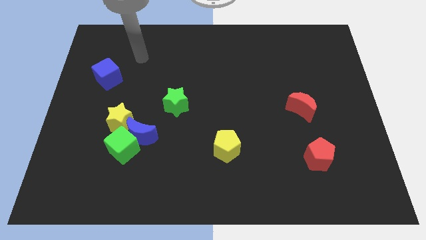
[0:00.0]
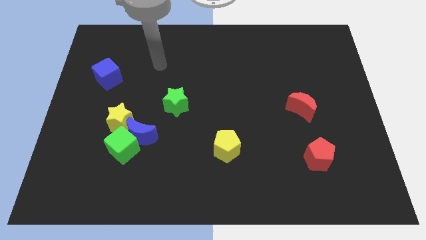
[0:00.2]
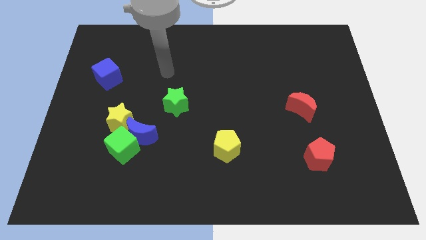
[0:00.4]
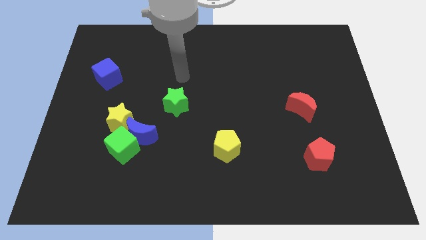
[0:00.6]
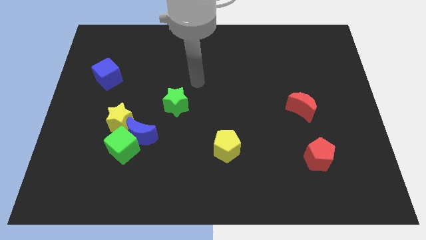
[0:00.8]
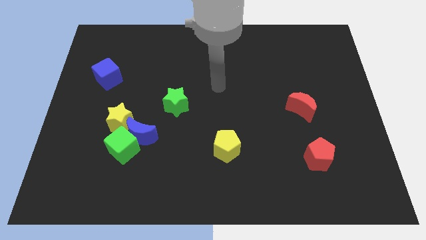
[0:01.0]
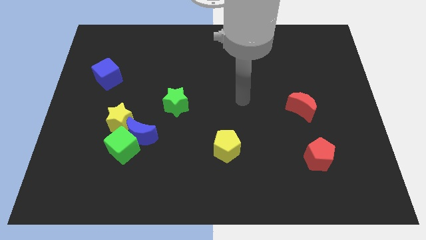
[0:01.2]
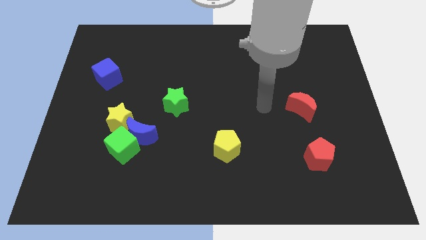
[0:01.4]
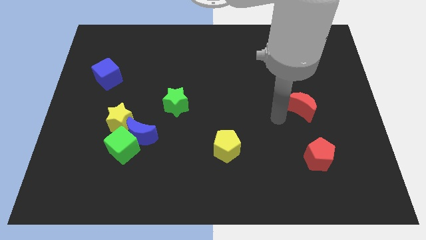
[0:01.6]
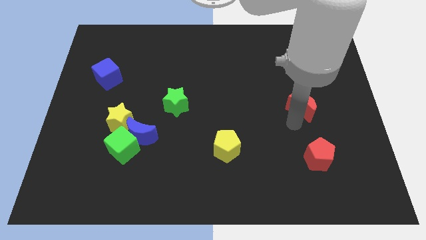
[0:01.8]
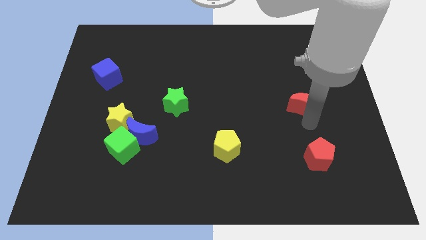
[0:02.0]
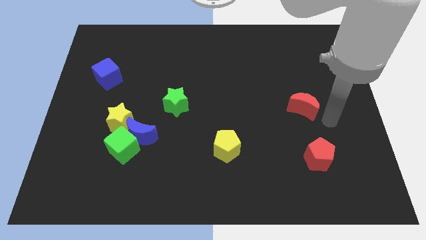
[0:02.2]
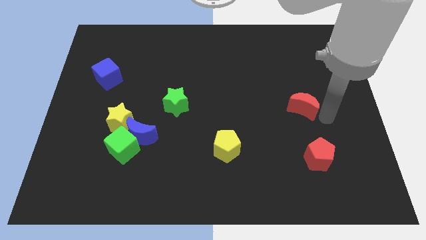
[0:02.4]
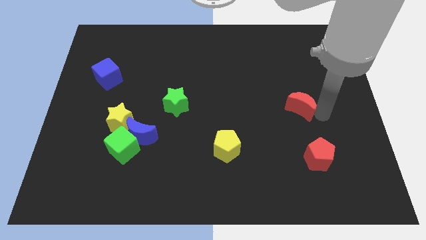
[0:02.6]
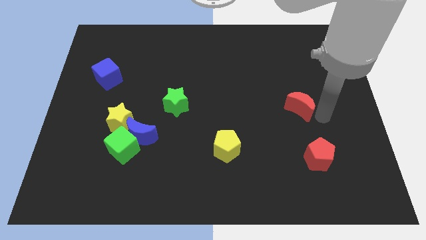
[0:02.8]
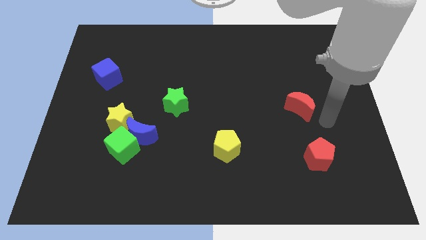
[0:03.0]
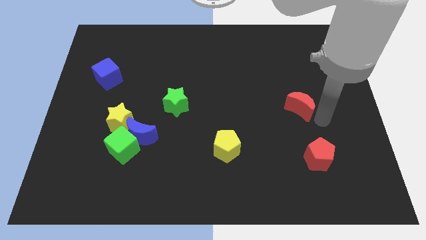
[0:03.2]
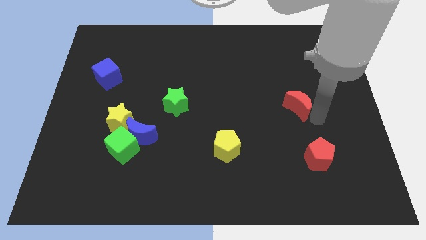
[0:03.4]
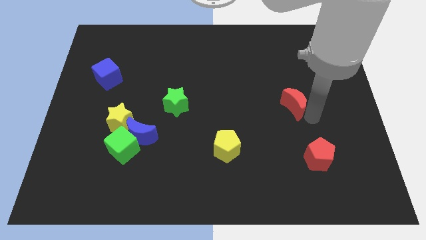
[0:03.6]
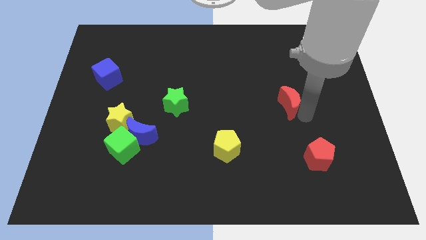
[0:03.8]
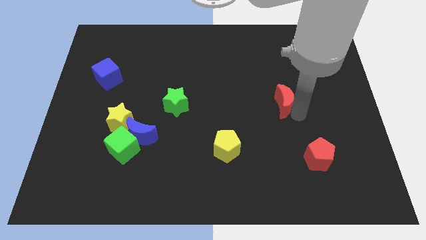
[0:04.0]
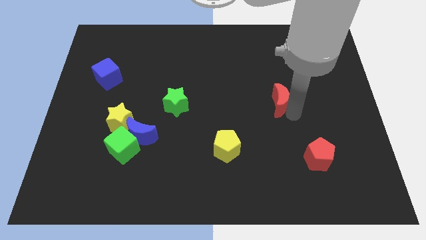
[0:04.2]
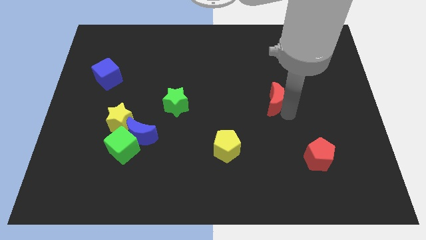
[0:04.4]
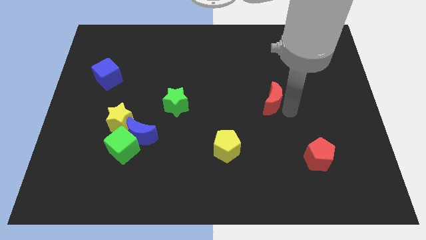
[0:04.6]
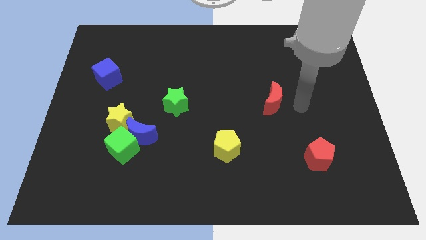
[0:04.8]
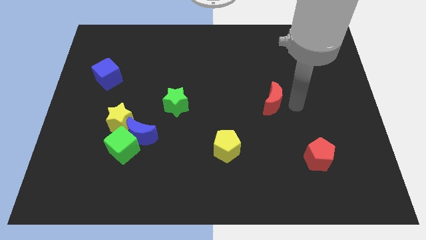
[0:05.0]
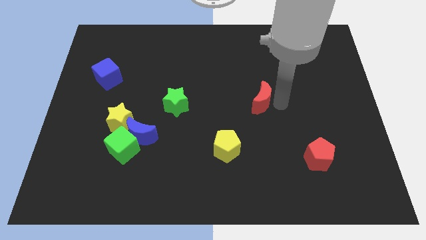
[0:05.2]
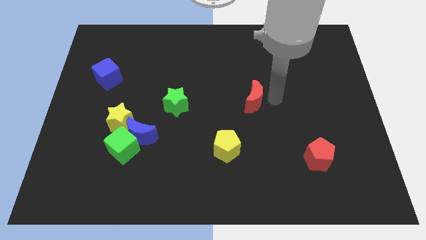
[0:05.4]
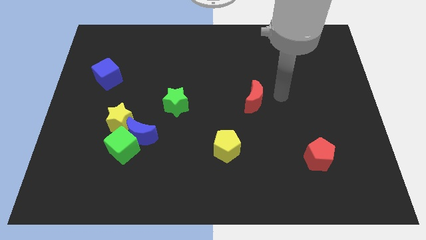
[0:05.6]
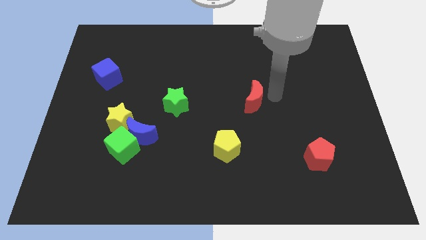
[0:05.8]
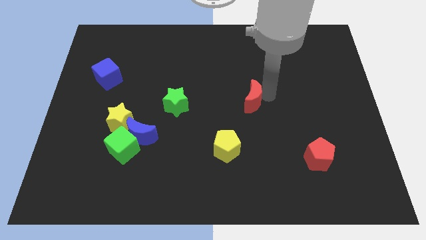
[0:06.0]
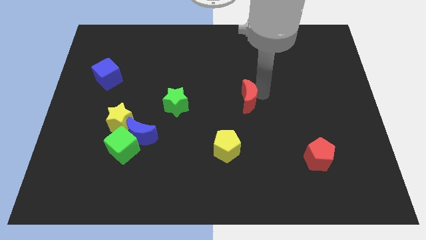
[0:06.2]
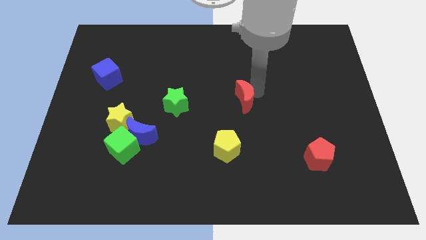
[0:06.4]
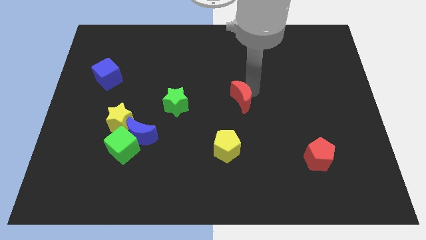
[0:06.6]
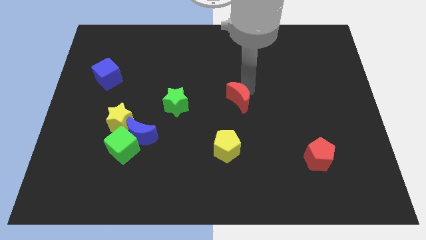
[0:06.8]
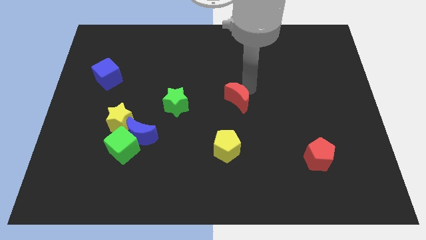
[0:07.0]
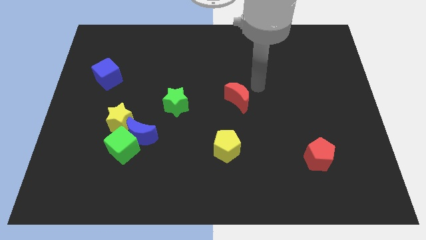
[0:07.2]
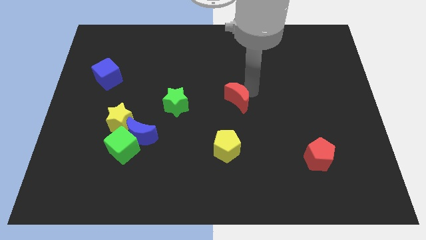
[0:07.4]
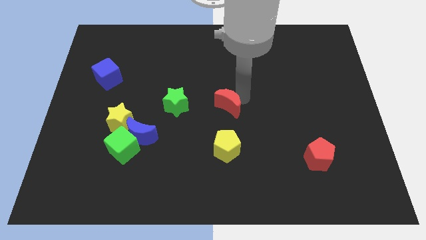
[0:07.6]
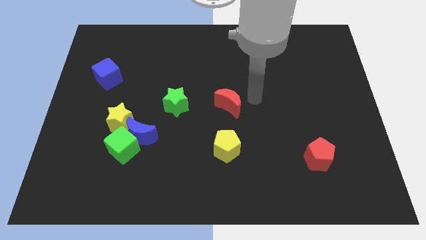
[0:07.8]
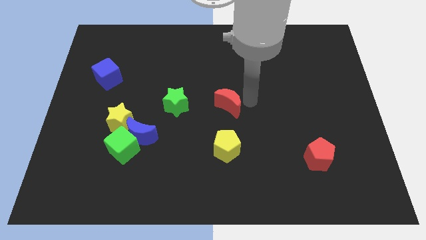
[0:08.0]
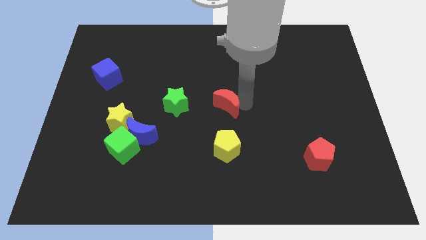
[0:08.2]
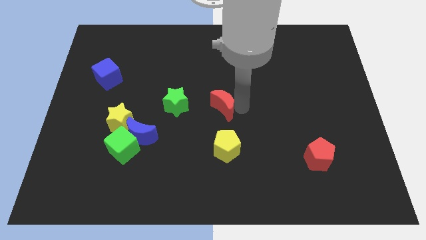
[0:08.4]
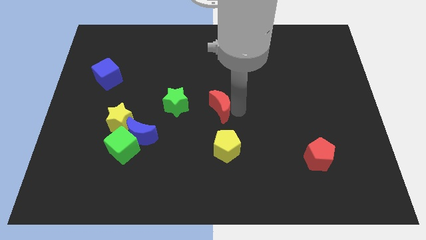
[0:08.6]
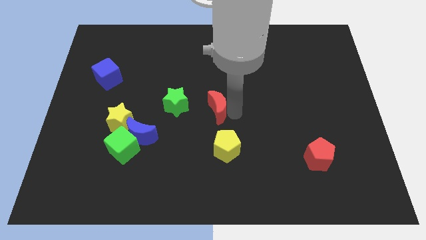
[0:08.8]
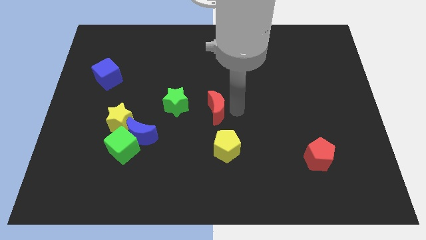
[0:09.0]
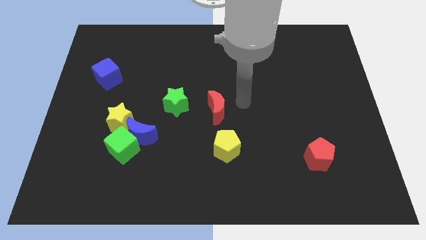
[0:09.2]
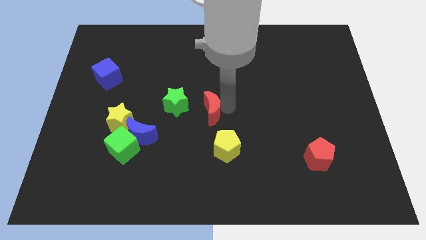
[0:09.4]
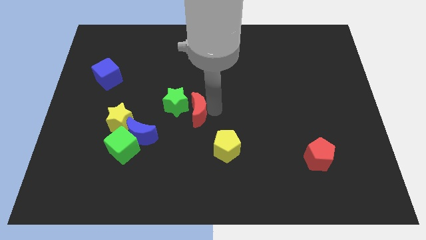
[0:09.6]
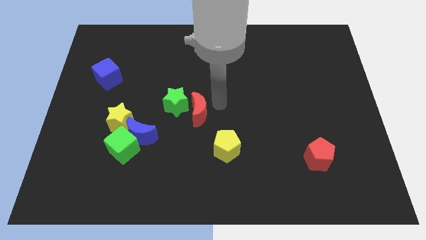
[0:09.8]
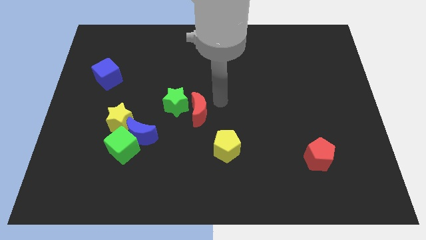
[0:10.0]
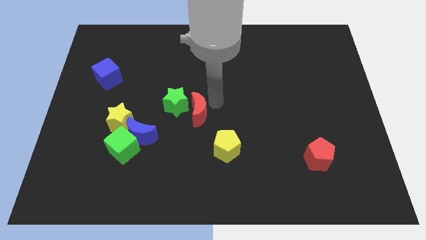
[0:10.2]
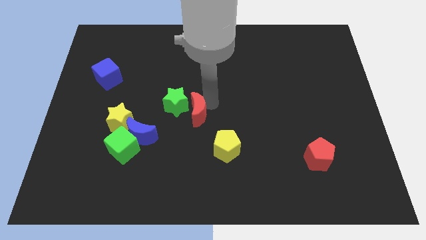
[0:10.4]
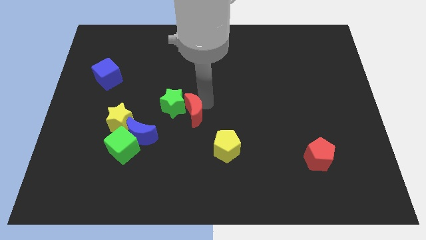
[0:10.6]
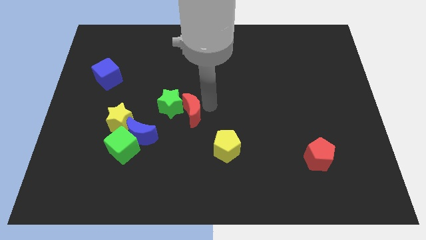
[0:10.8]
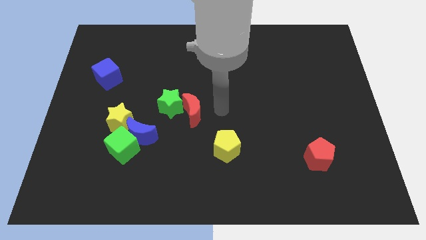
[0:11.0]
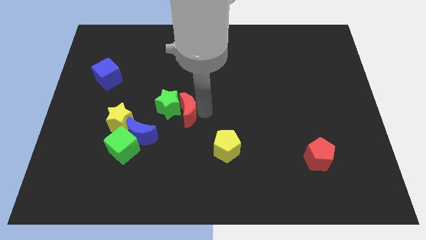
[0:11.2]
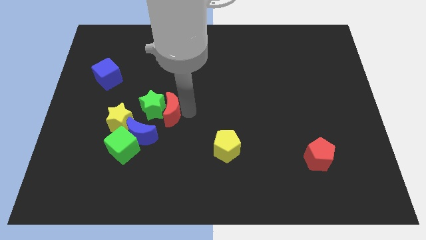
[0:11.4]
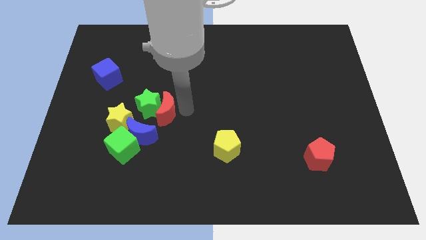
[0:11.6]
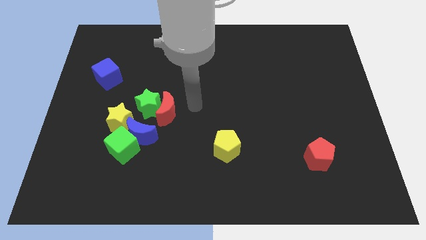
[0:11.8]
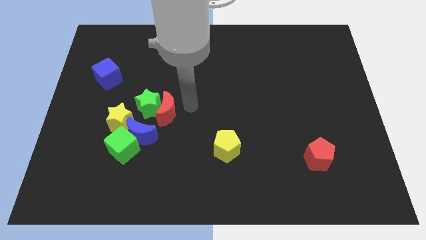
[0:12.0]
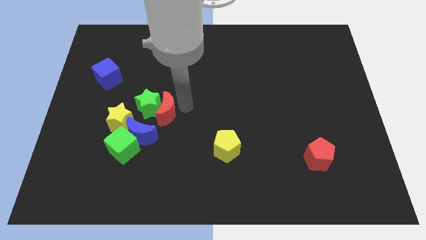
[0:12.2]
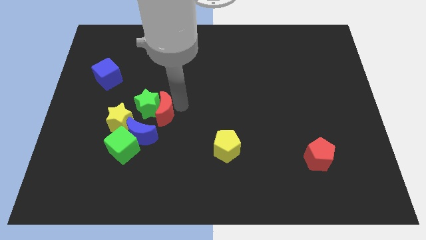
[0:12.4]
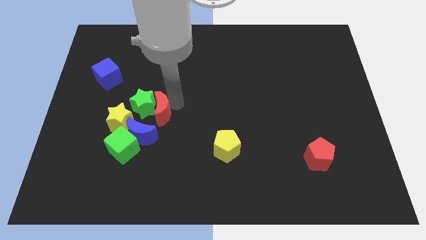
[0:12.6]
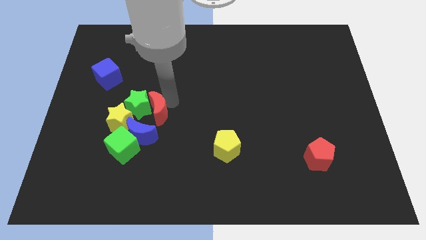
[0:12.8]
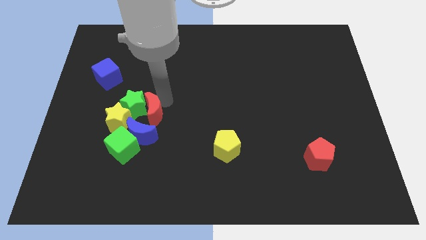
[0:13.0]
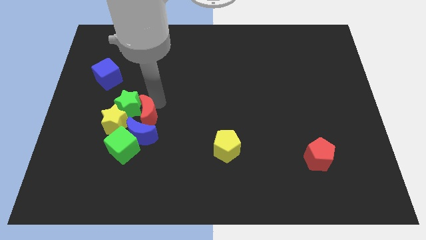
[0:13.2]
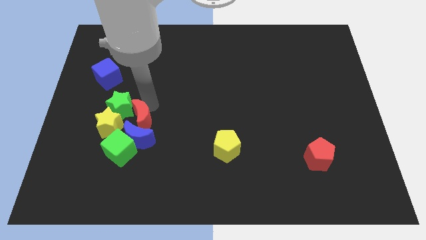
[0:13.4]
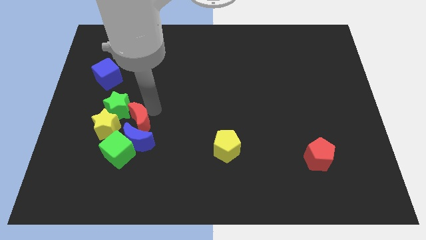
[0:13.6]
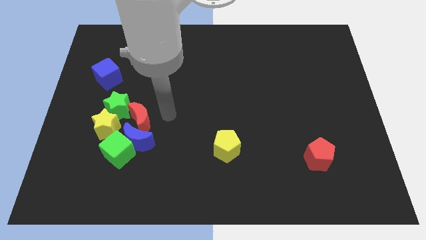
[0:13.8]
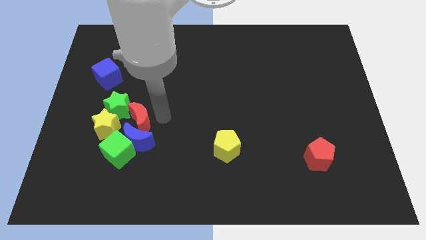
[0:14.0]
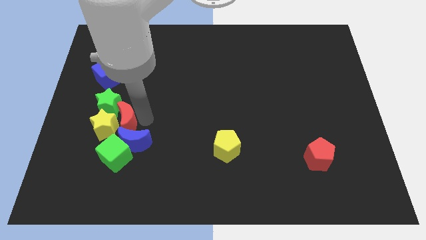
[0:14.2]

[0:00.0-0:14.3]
move the red moon to the yellow star
